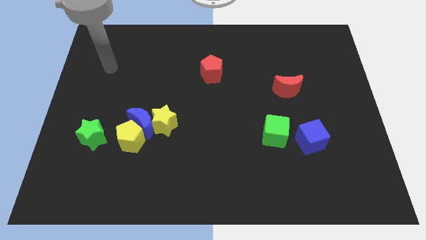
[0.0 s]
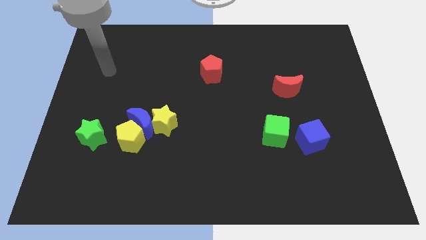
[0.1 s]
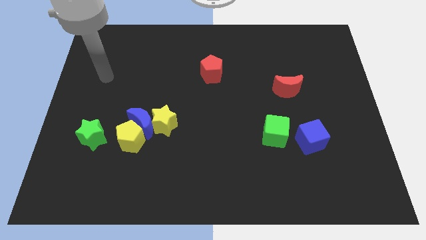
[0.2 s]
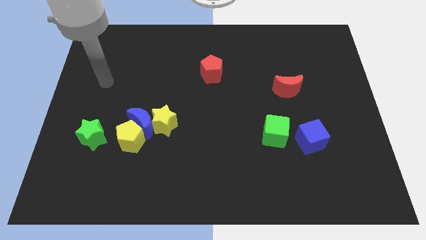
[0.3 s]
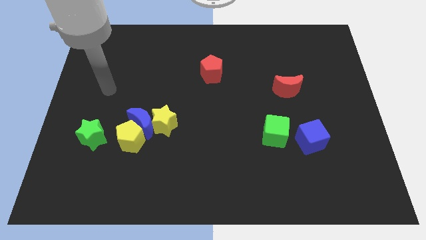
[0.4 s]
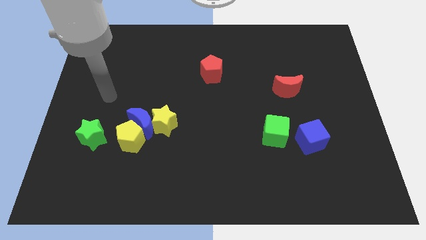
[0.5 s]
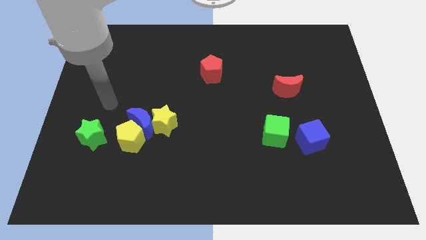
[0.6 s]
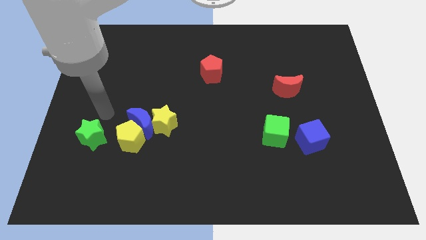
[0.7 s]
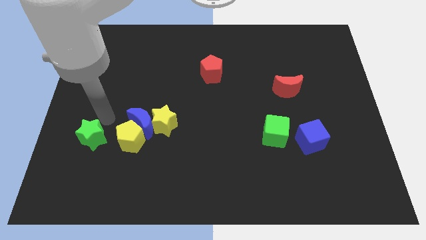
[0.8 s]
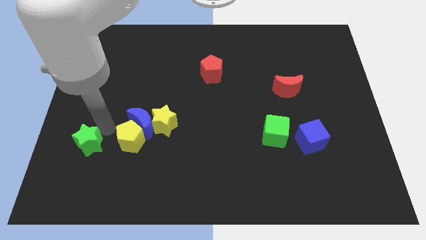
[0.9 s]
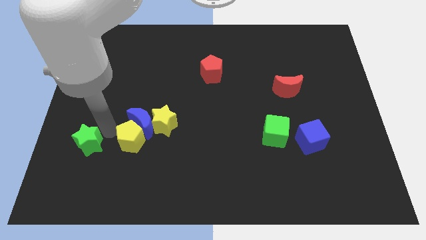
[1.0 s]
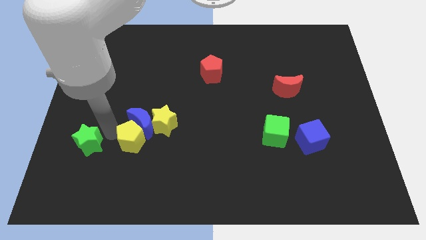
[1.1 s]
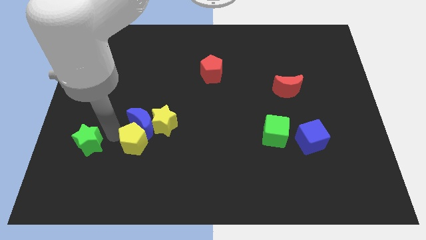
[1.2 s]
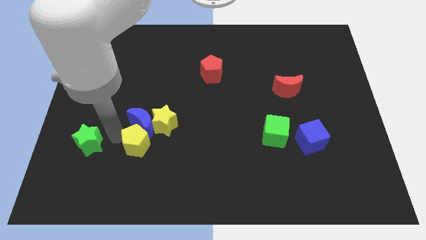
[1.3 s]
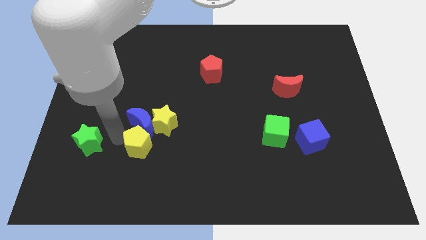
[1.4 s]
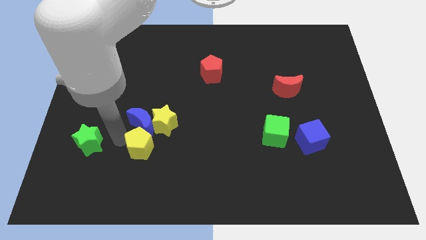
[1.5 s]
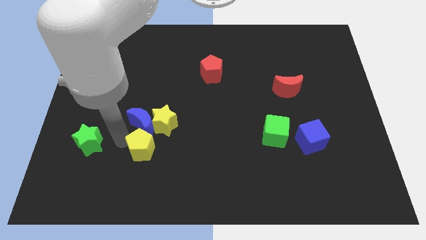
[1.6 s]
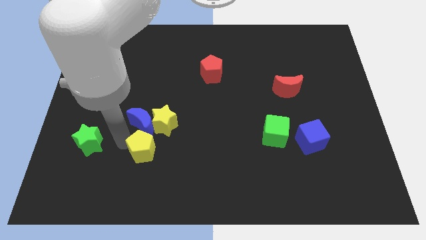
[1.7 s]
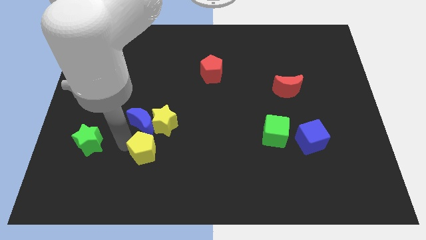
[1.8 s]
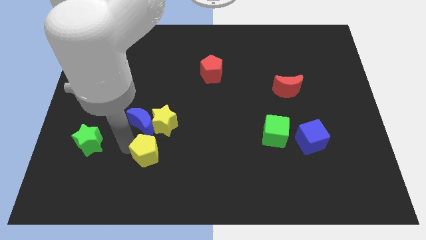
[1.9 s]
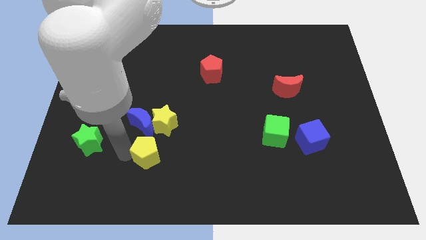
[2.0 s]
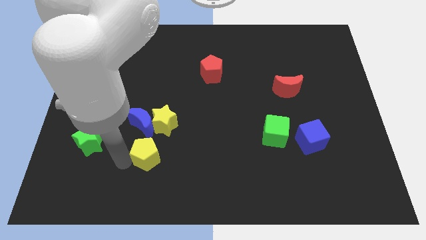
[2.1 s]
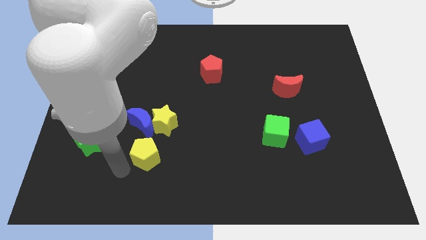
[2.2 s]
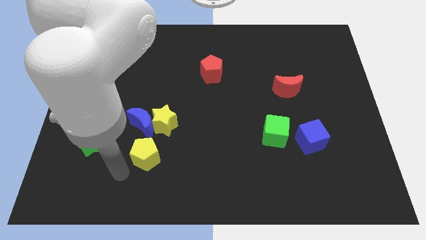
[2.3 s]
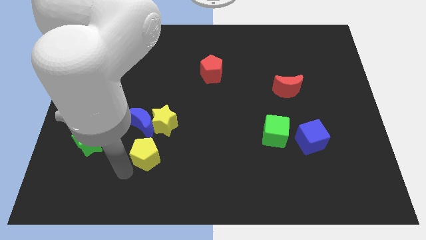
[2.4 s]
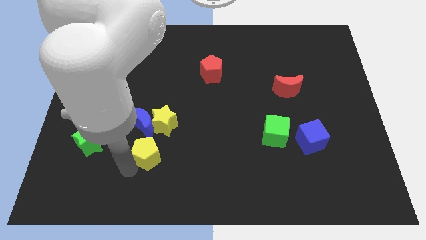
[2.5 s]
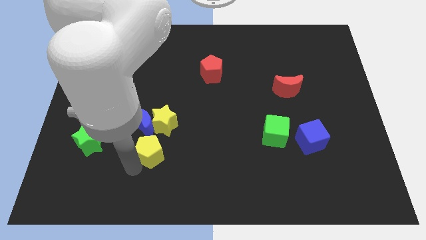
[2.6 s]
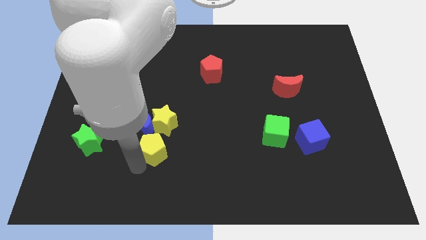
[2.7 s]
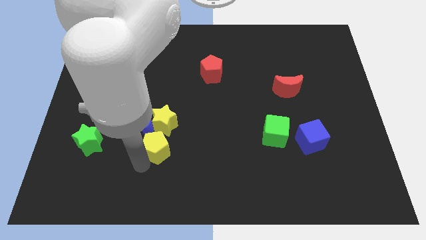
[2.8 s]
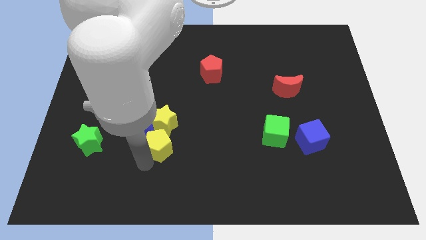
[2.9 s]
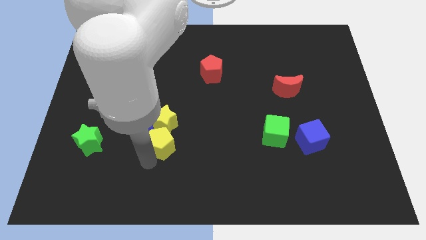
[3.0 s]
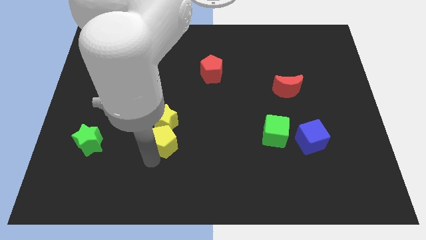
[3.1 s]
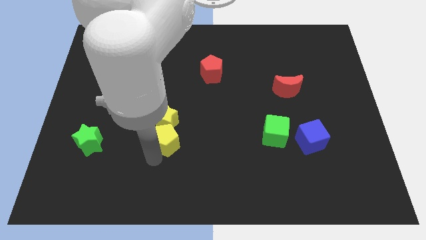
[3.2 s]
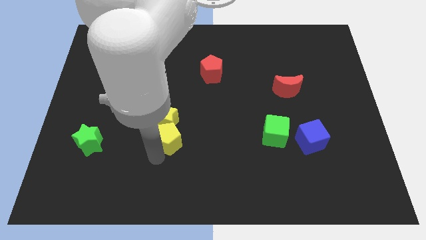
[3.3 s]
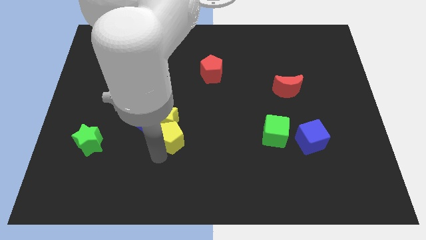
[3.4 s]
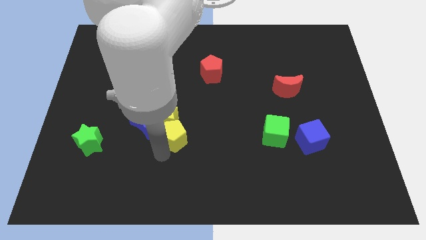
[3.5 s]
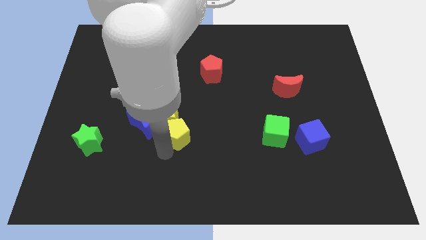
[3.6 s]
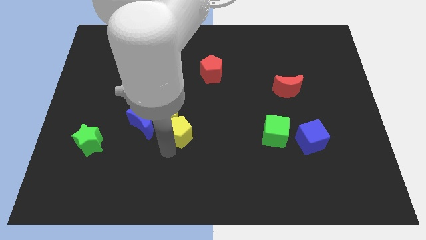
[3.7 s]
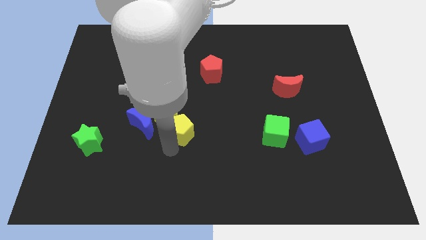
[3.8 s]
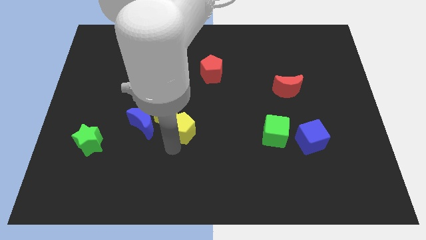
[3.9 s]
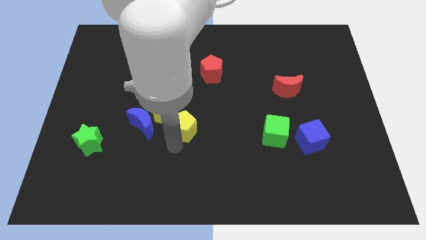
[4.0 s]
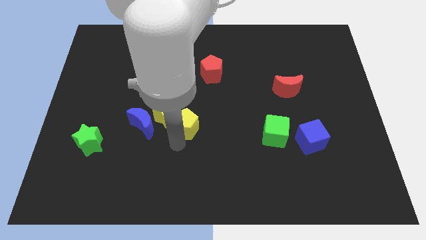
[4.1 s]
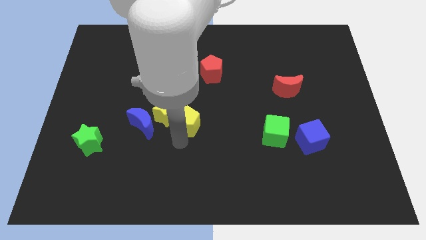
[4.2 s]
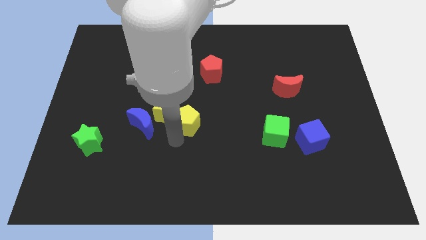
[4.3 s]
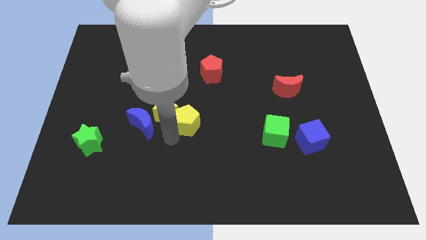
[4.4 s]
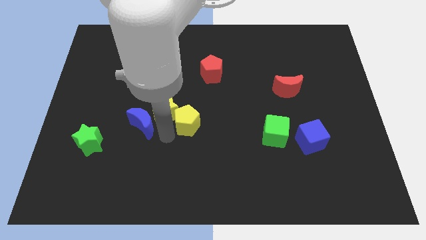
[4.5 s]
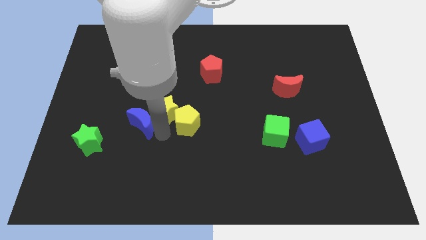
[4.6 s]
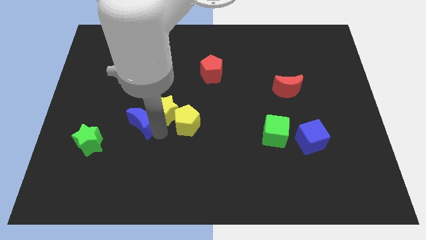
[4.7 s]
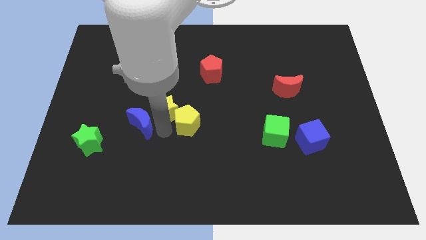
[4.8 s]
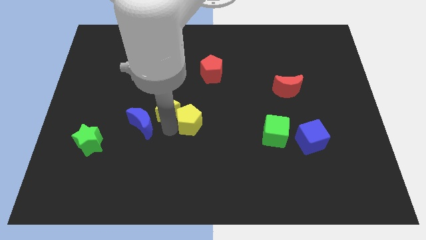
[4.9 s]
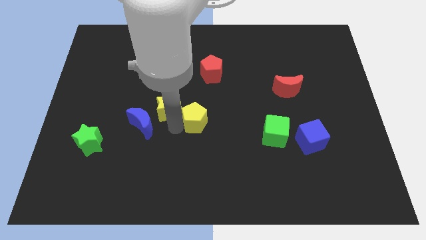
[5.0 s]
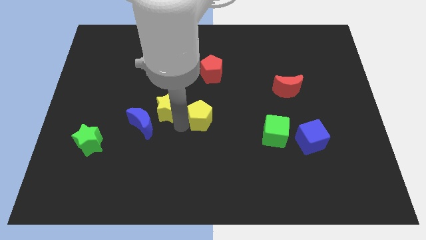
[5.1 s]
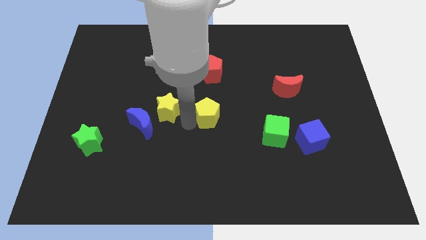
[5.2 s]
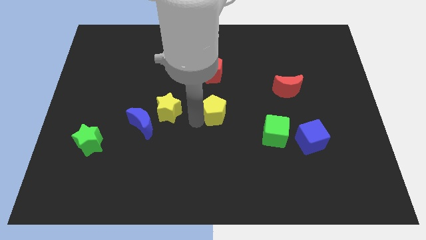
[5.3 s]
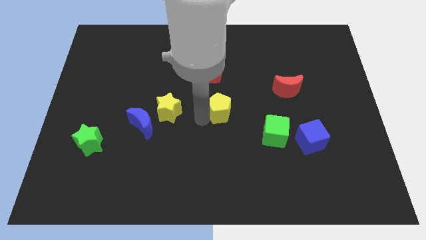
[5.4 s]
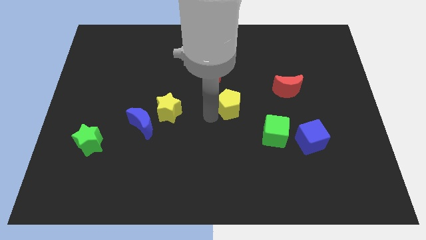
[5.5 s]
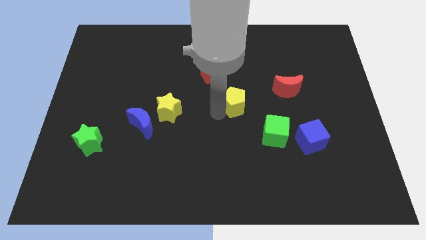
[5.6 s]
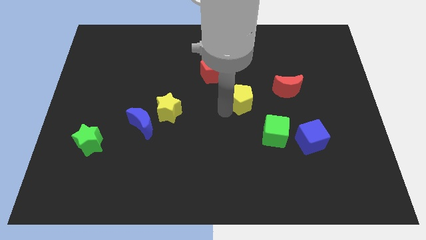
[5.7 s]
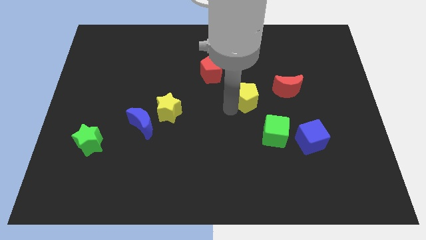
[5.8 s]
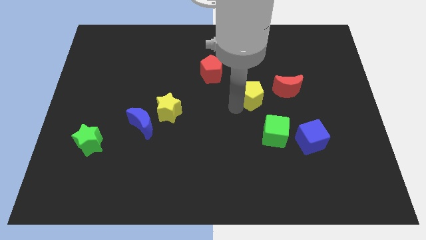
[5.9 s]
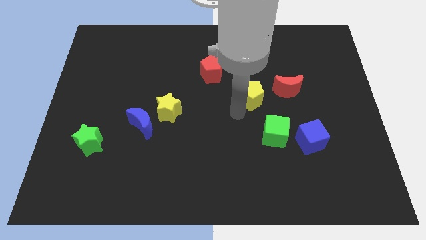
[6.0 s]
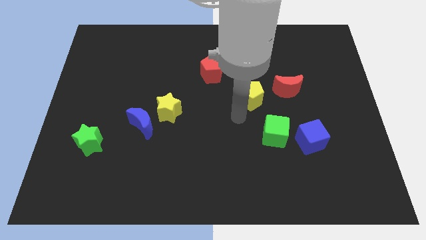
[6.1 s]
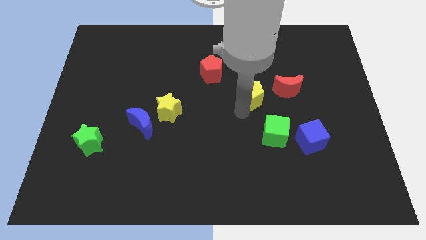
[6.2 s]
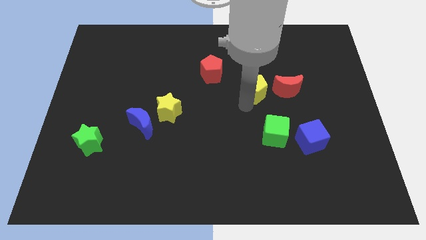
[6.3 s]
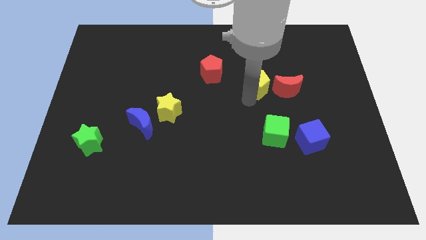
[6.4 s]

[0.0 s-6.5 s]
slide the yellow pentagon diagonally up and to the left of the red moon

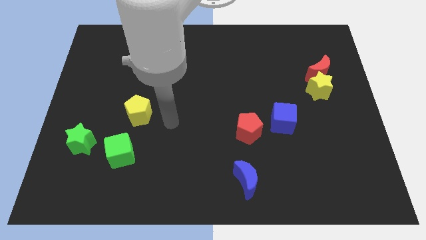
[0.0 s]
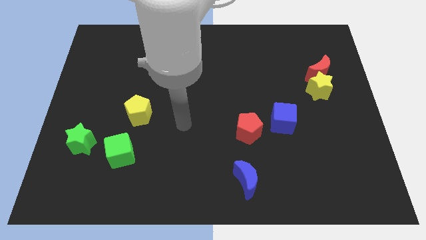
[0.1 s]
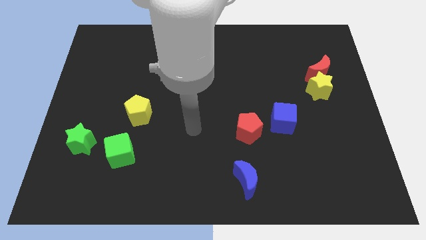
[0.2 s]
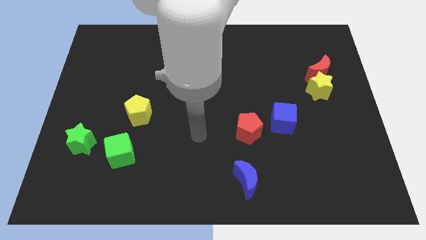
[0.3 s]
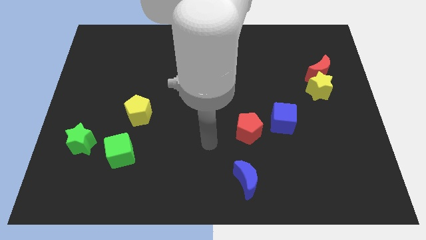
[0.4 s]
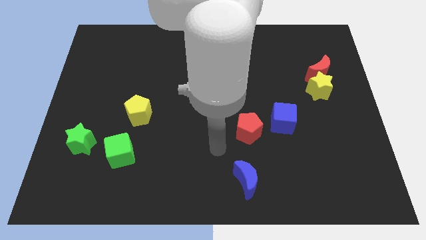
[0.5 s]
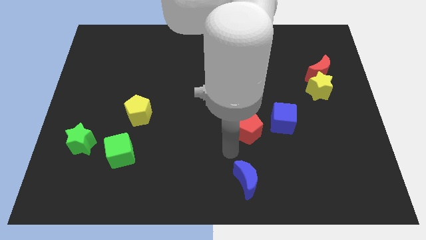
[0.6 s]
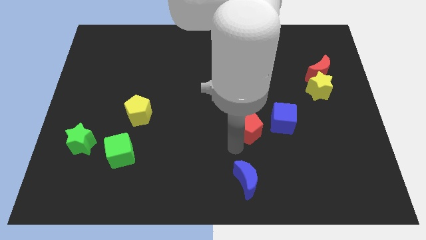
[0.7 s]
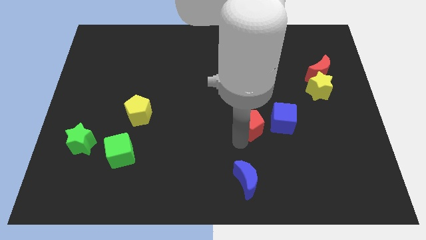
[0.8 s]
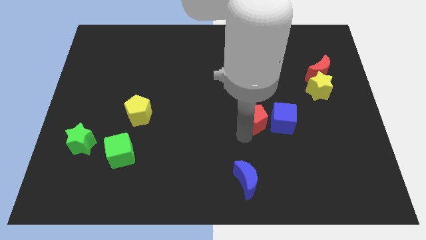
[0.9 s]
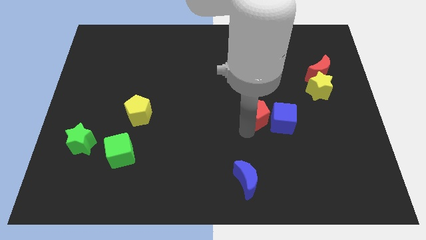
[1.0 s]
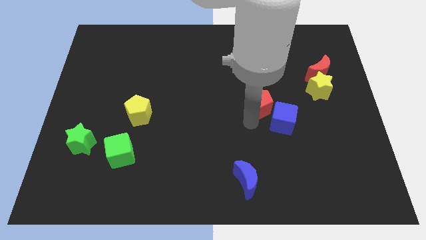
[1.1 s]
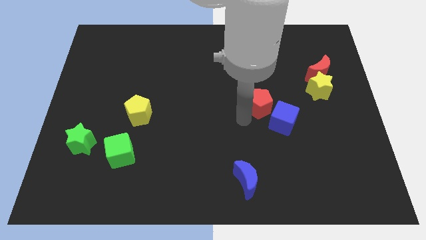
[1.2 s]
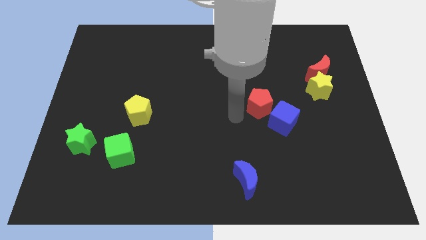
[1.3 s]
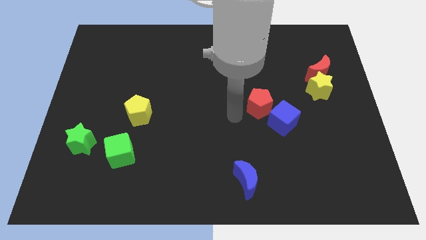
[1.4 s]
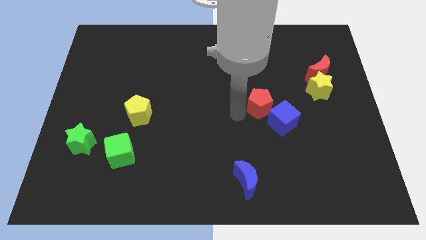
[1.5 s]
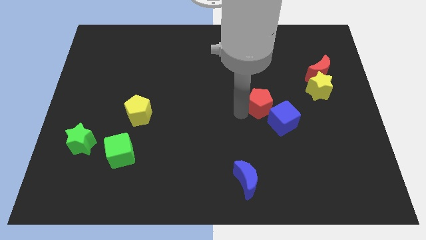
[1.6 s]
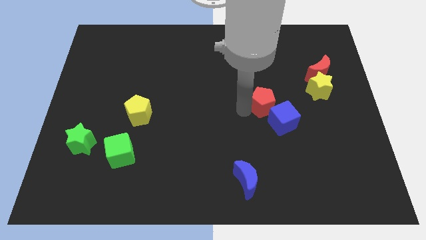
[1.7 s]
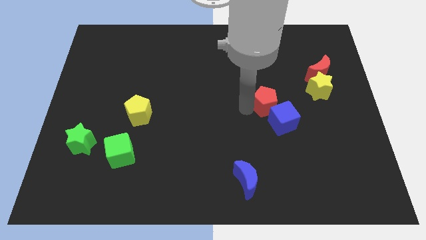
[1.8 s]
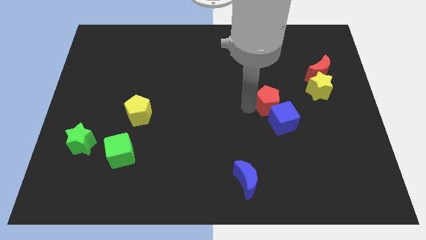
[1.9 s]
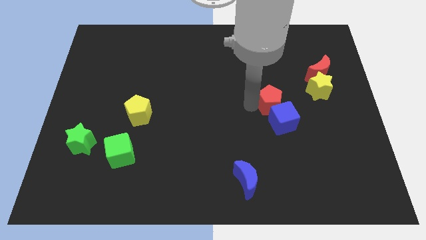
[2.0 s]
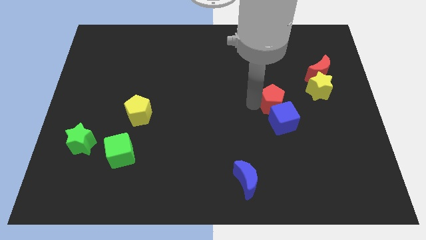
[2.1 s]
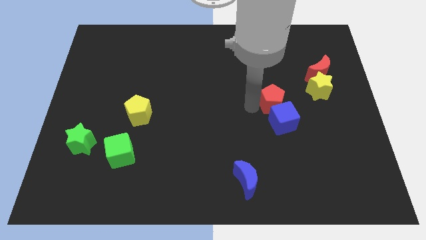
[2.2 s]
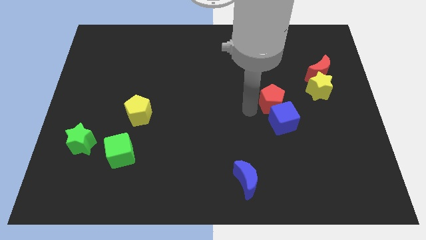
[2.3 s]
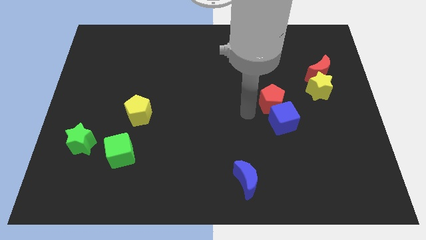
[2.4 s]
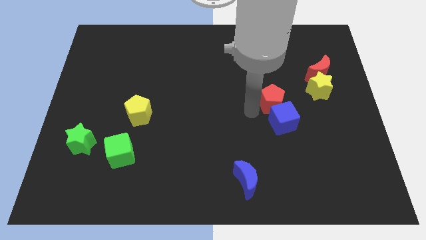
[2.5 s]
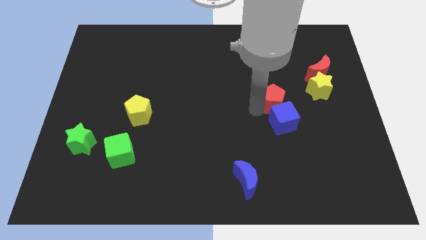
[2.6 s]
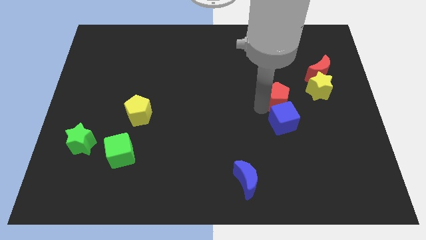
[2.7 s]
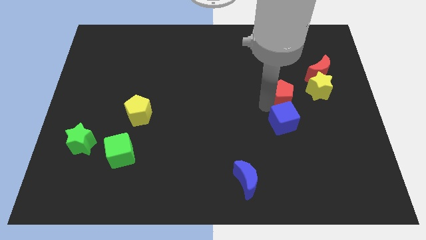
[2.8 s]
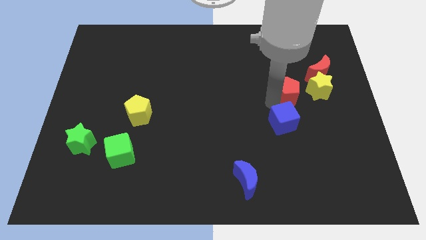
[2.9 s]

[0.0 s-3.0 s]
push the red pentagon diagonally down and to the left of the red moon
